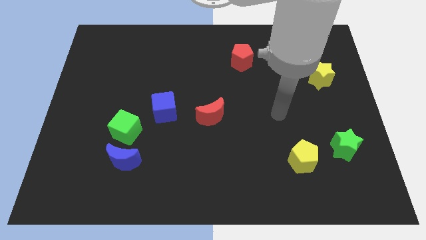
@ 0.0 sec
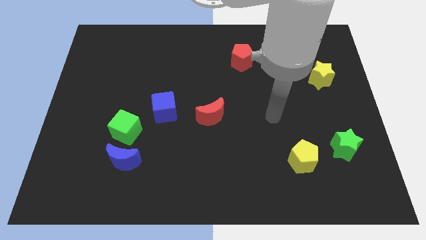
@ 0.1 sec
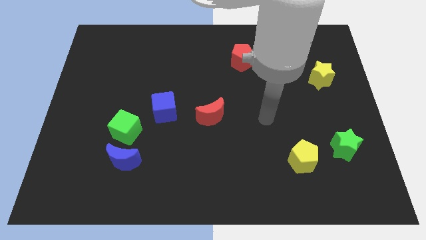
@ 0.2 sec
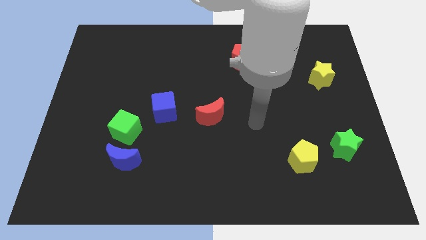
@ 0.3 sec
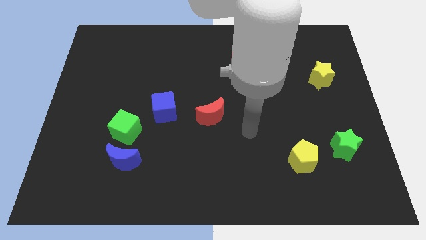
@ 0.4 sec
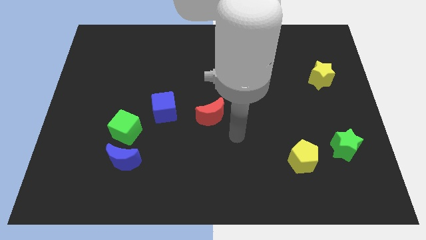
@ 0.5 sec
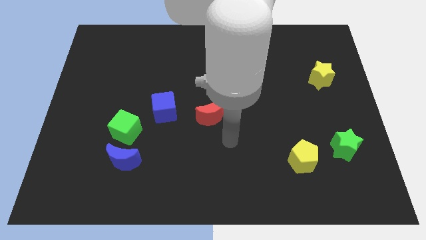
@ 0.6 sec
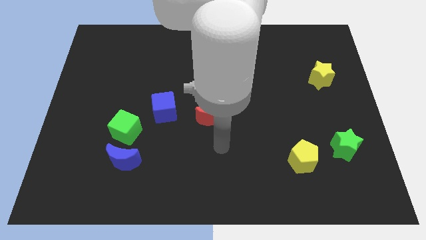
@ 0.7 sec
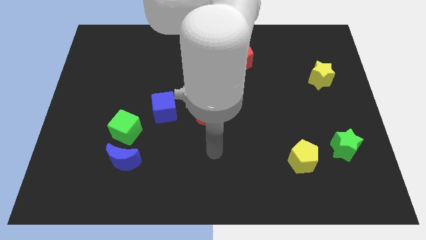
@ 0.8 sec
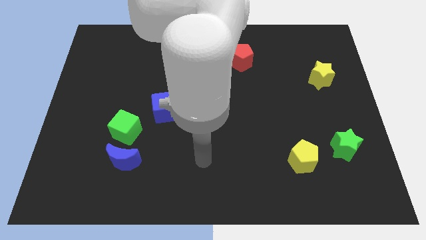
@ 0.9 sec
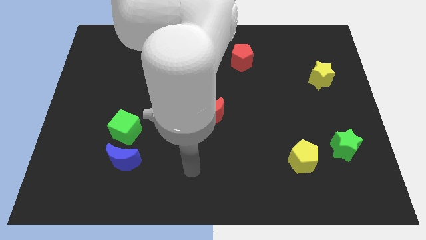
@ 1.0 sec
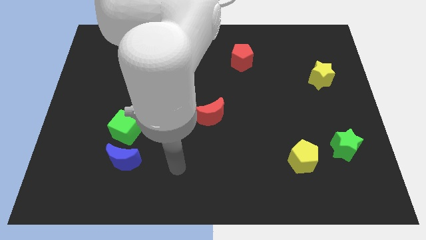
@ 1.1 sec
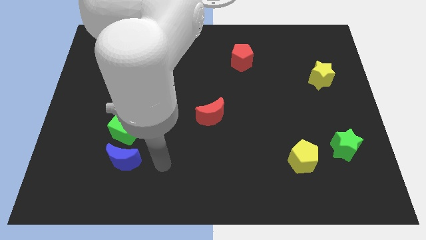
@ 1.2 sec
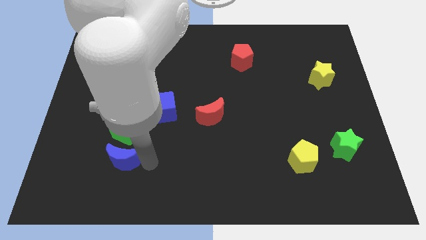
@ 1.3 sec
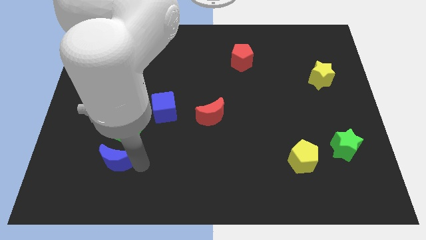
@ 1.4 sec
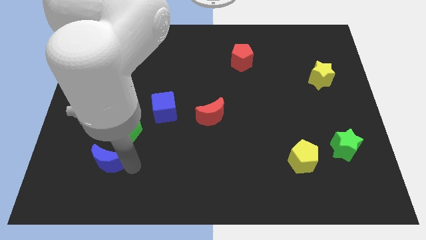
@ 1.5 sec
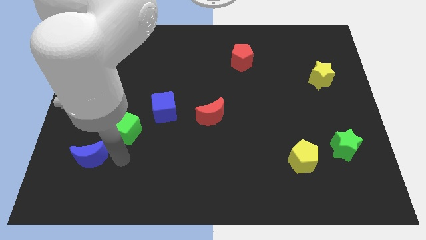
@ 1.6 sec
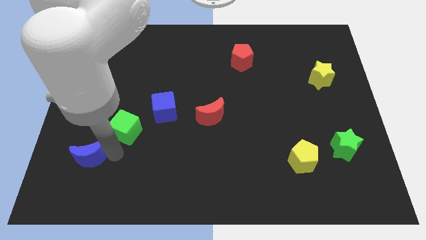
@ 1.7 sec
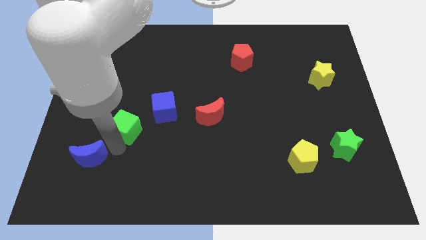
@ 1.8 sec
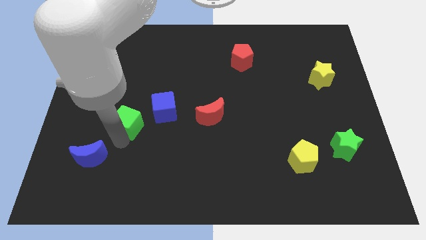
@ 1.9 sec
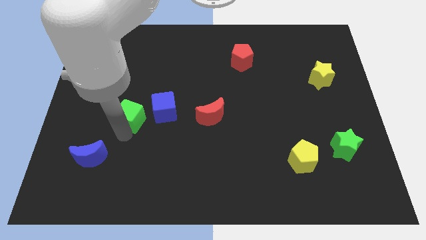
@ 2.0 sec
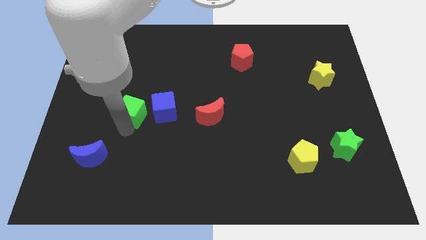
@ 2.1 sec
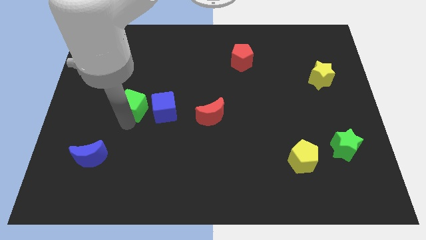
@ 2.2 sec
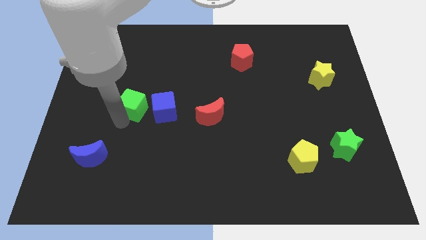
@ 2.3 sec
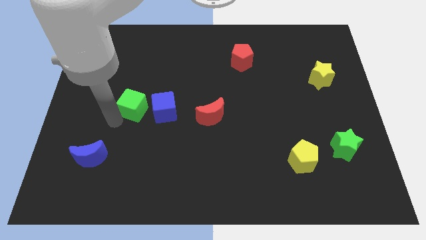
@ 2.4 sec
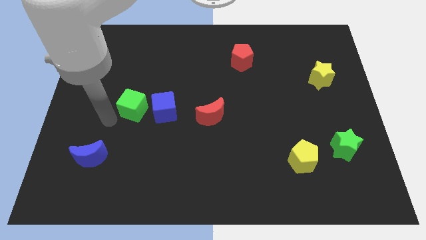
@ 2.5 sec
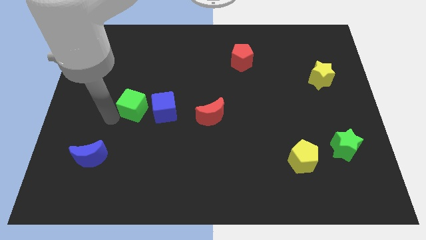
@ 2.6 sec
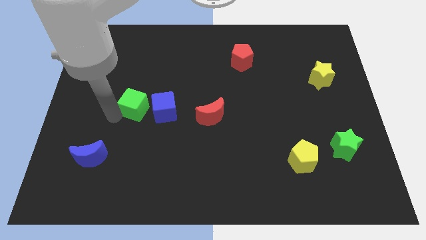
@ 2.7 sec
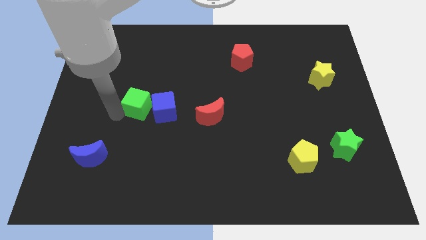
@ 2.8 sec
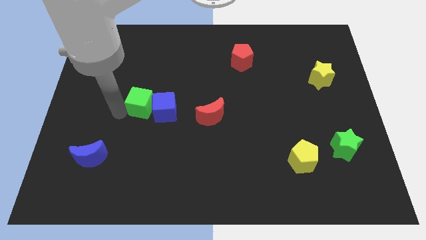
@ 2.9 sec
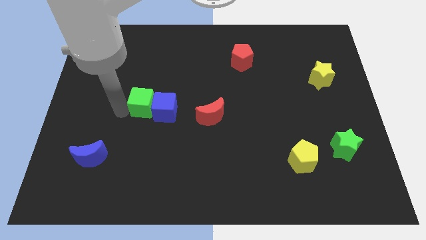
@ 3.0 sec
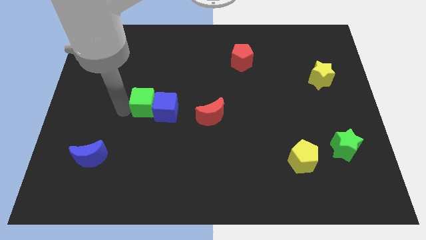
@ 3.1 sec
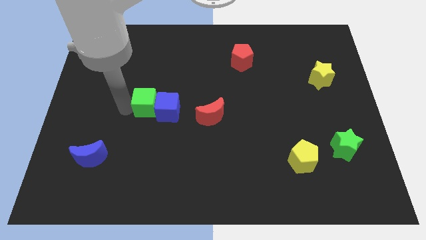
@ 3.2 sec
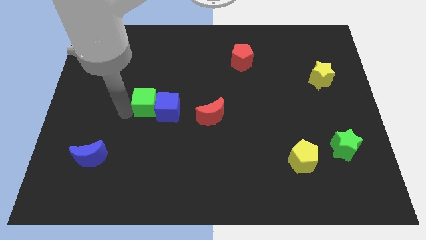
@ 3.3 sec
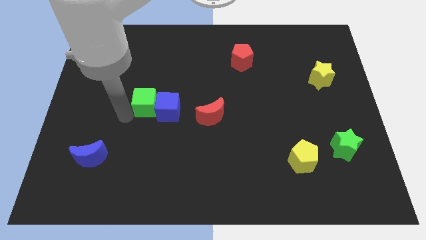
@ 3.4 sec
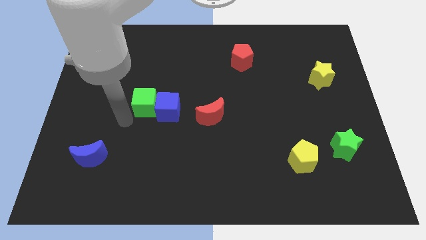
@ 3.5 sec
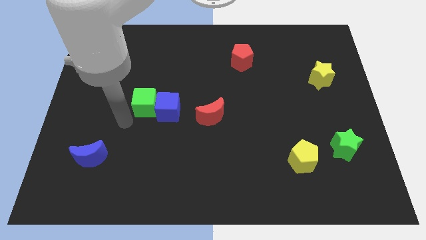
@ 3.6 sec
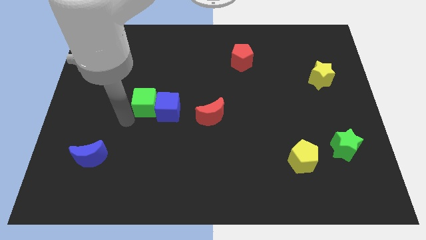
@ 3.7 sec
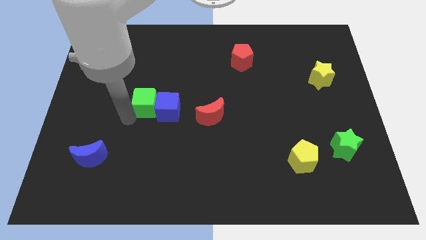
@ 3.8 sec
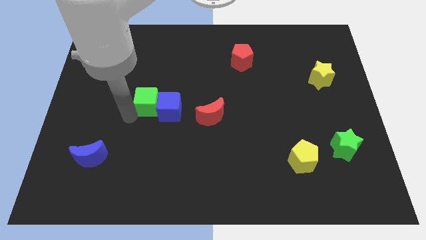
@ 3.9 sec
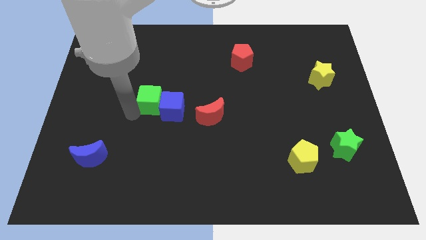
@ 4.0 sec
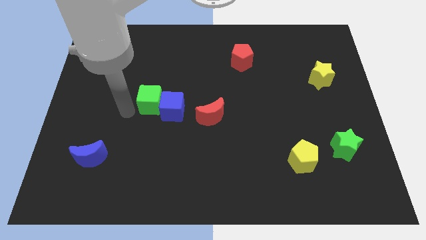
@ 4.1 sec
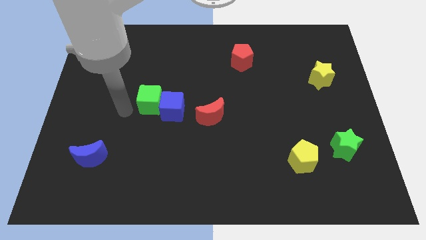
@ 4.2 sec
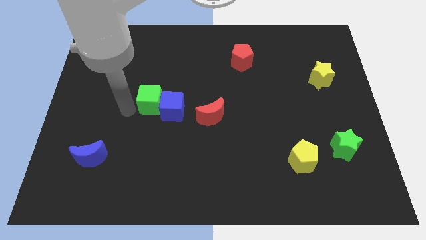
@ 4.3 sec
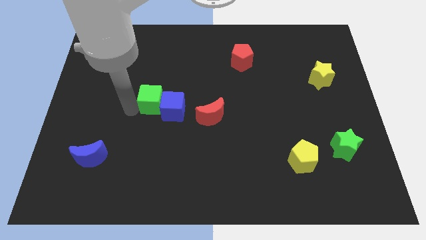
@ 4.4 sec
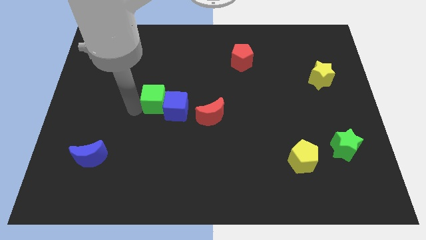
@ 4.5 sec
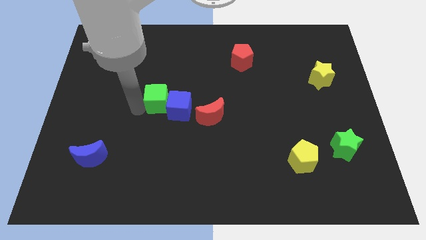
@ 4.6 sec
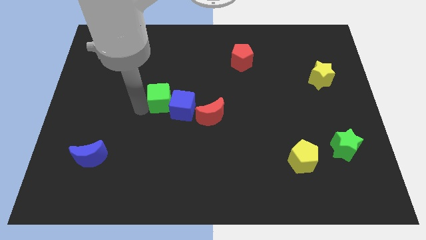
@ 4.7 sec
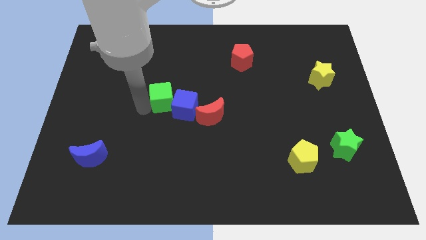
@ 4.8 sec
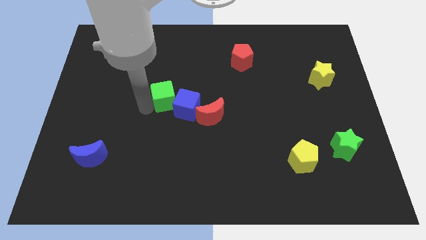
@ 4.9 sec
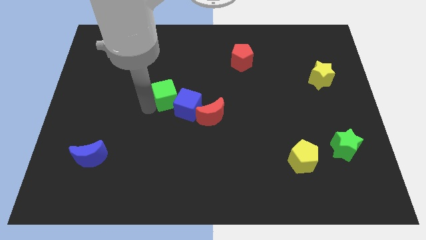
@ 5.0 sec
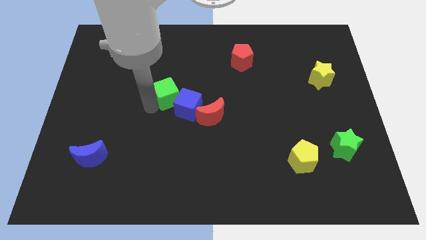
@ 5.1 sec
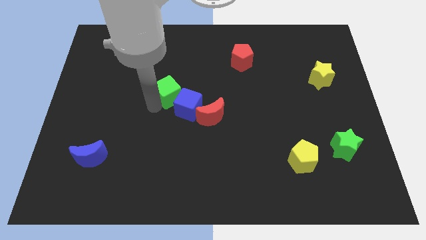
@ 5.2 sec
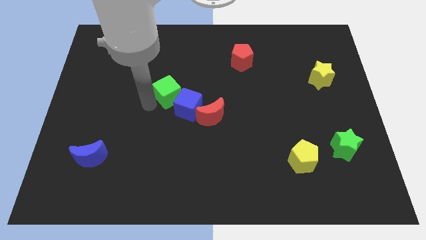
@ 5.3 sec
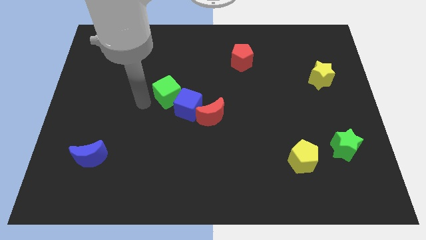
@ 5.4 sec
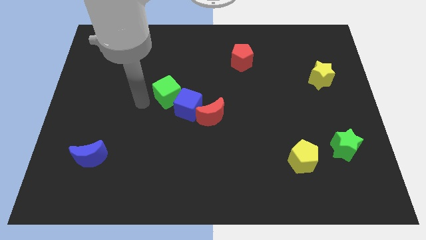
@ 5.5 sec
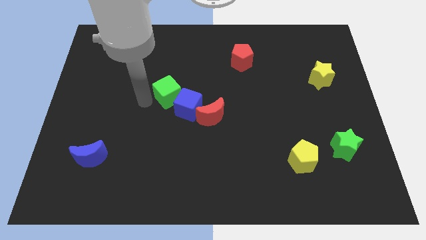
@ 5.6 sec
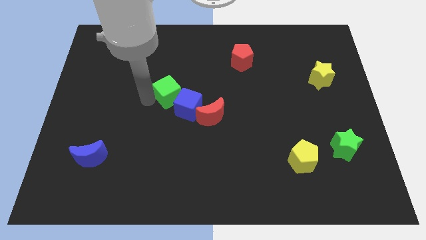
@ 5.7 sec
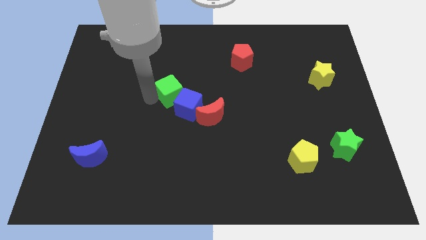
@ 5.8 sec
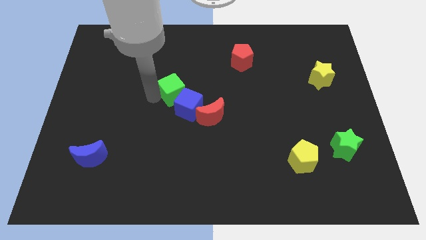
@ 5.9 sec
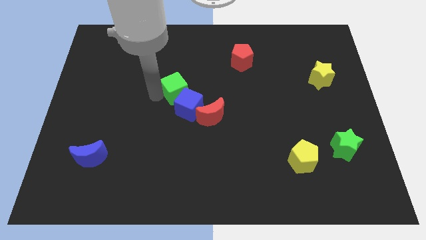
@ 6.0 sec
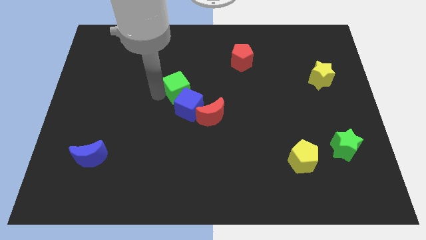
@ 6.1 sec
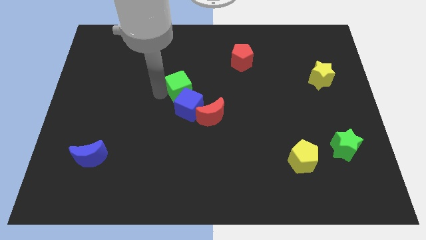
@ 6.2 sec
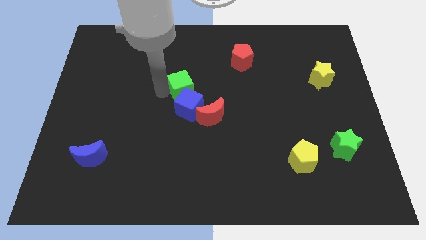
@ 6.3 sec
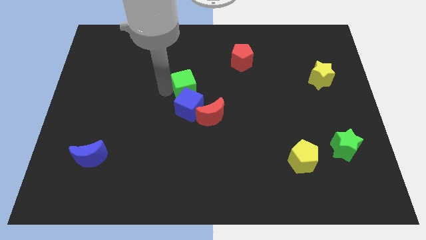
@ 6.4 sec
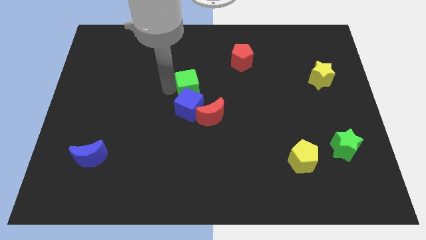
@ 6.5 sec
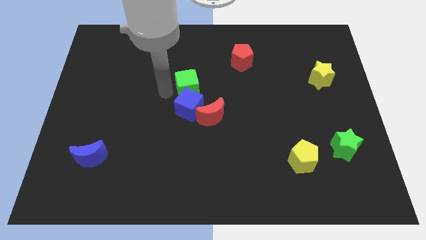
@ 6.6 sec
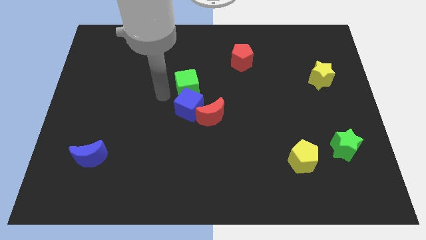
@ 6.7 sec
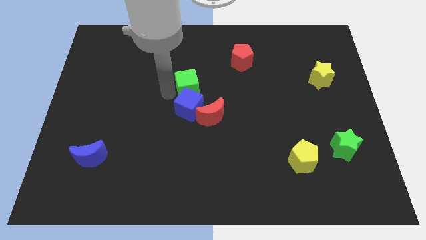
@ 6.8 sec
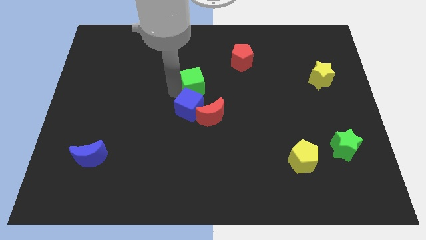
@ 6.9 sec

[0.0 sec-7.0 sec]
move the green cube up and to the right diagonally

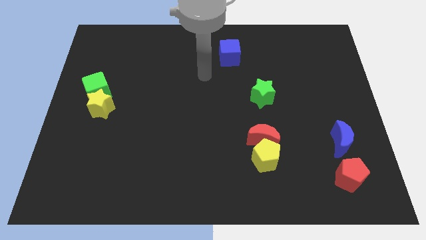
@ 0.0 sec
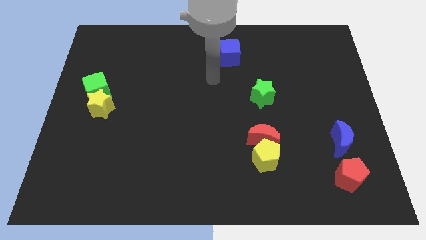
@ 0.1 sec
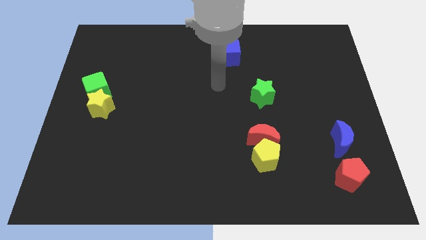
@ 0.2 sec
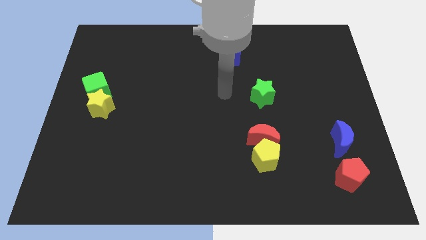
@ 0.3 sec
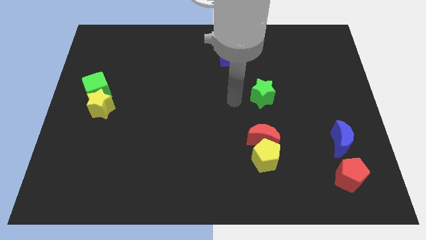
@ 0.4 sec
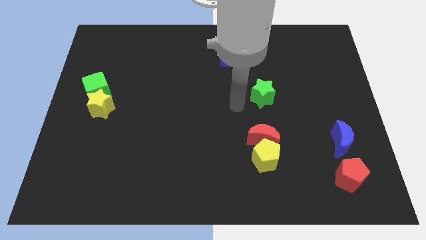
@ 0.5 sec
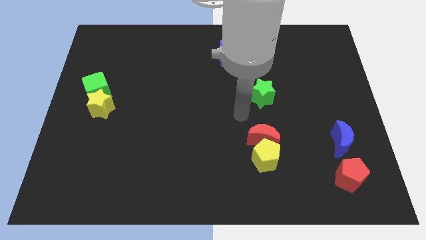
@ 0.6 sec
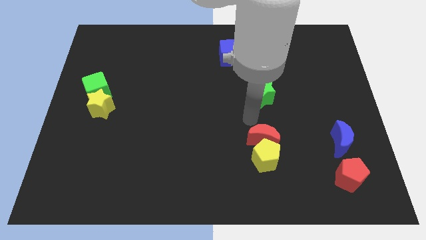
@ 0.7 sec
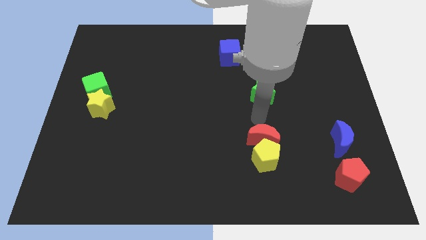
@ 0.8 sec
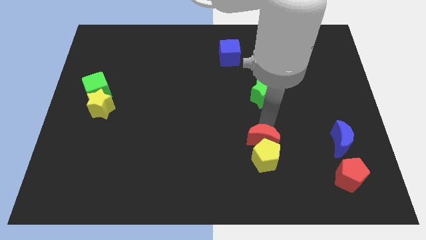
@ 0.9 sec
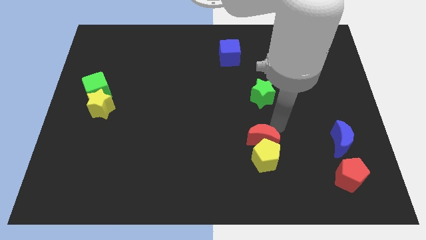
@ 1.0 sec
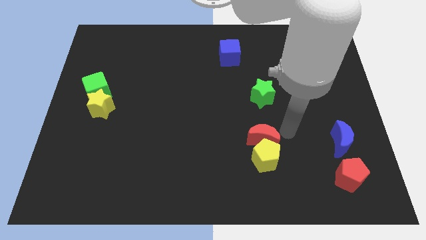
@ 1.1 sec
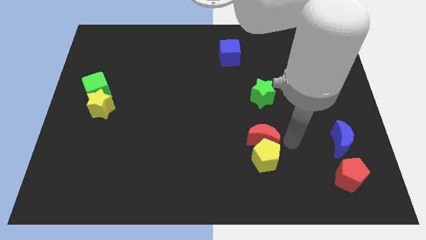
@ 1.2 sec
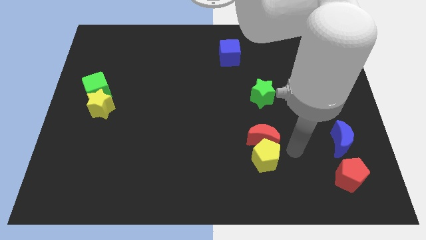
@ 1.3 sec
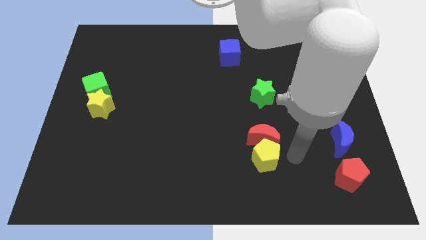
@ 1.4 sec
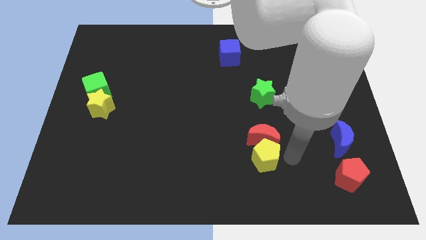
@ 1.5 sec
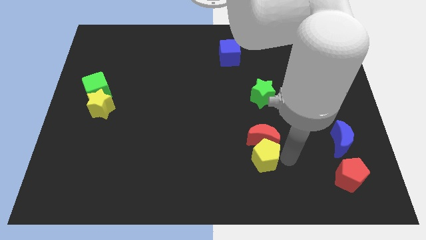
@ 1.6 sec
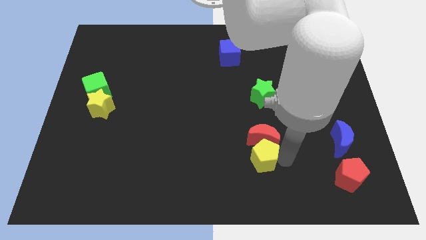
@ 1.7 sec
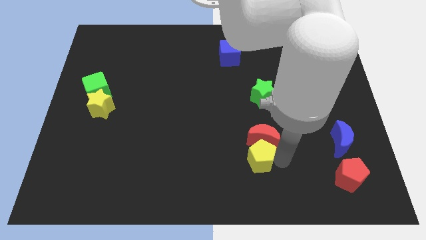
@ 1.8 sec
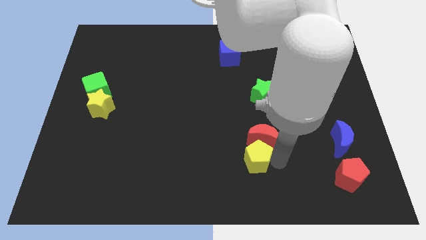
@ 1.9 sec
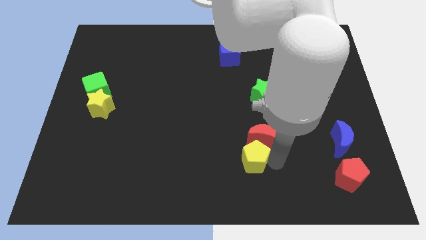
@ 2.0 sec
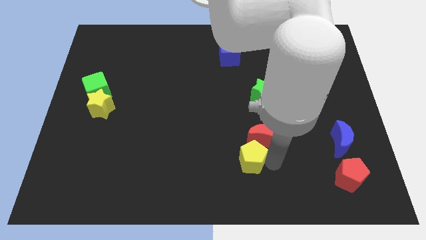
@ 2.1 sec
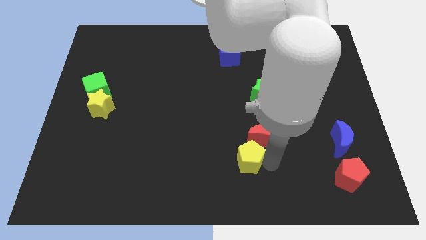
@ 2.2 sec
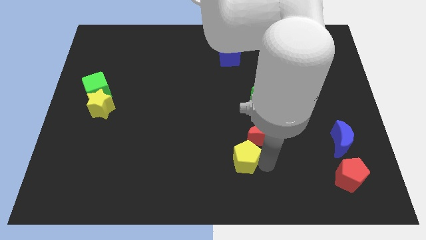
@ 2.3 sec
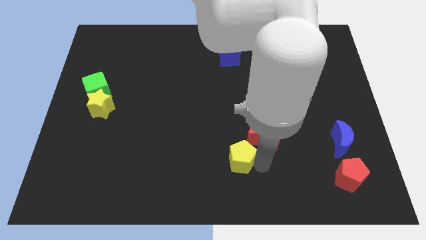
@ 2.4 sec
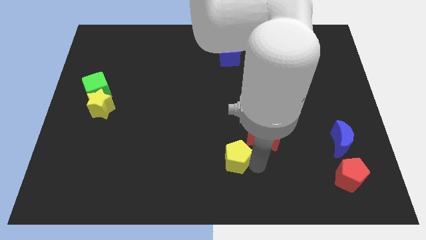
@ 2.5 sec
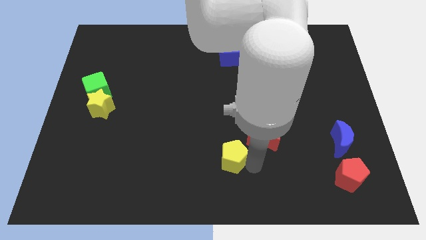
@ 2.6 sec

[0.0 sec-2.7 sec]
move the yellow pentagon a bit to the left
